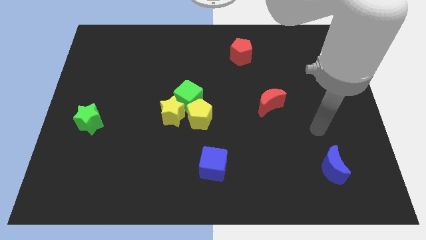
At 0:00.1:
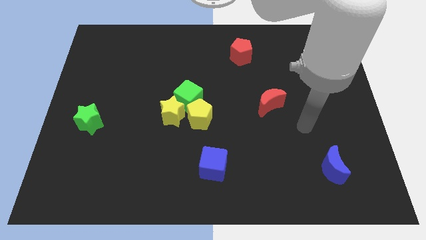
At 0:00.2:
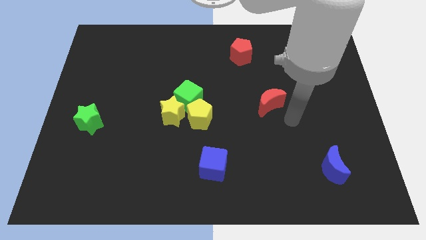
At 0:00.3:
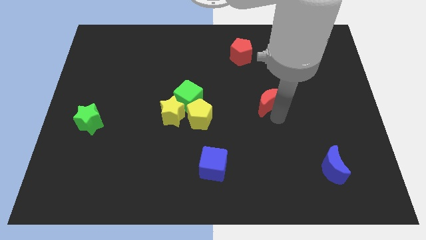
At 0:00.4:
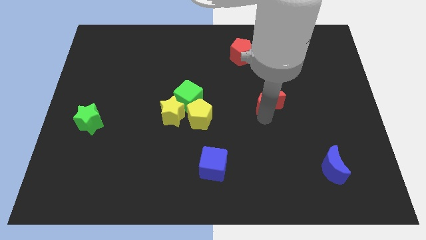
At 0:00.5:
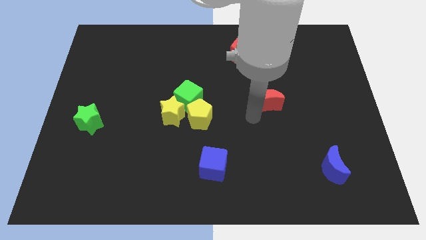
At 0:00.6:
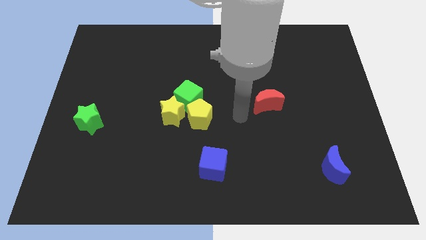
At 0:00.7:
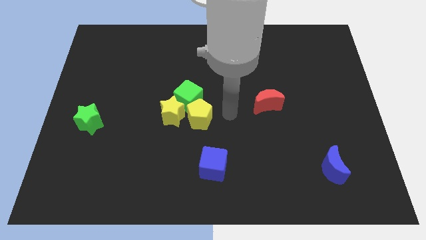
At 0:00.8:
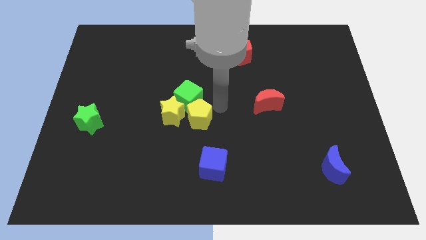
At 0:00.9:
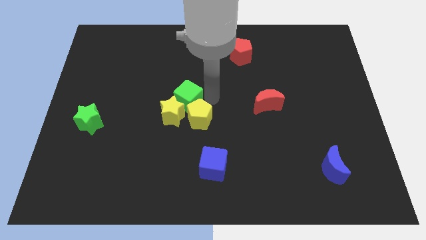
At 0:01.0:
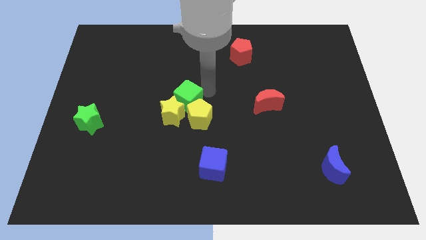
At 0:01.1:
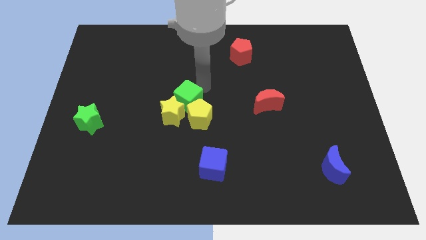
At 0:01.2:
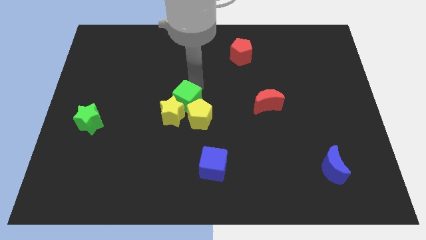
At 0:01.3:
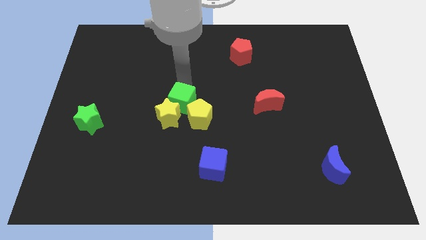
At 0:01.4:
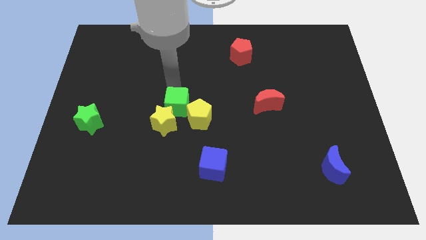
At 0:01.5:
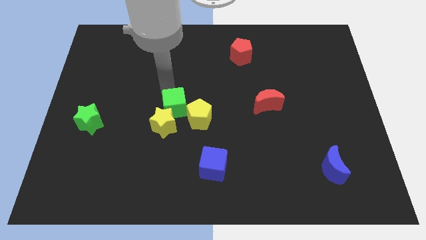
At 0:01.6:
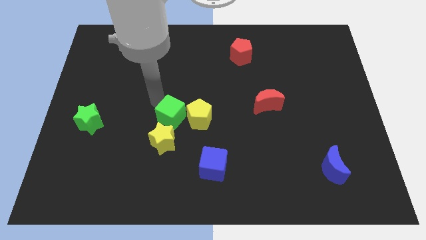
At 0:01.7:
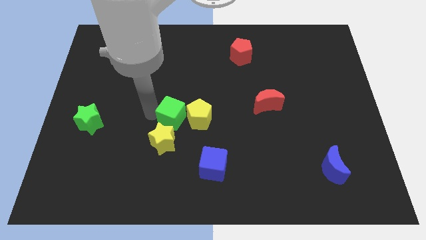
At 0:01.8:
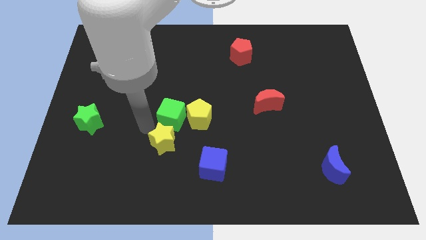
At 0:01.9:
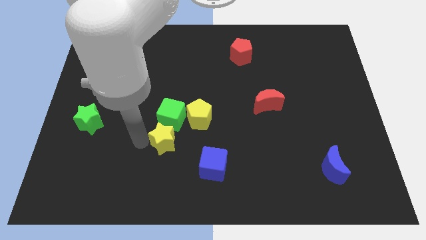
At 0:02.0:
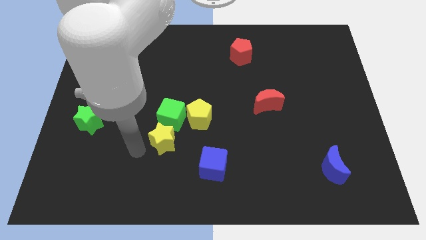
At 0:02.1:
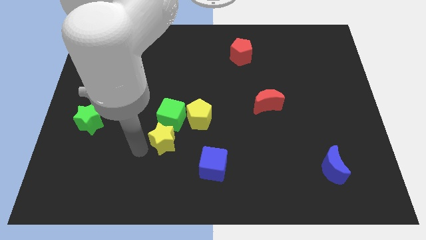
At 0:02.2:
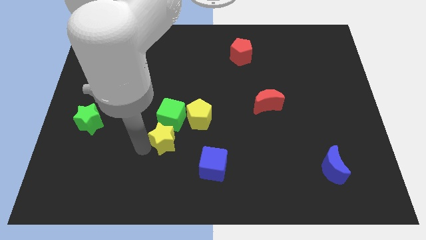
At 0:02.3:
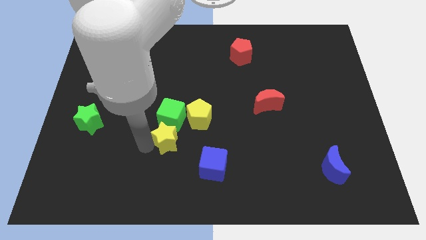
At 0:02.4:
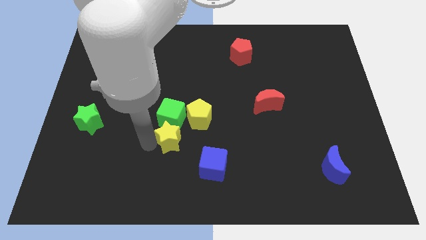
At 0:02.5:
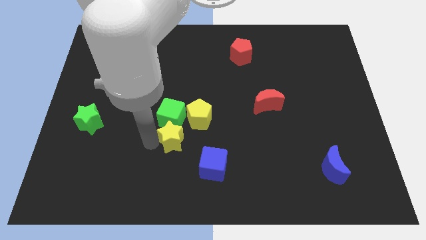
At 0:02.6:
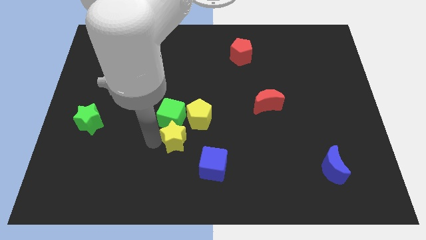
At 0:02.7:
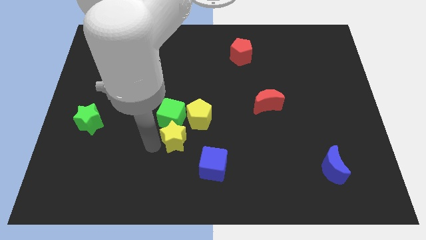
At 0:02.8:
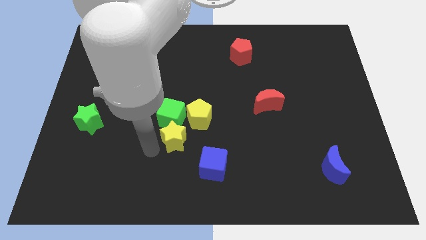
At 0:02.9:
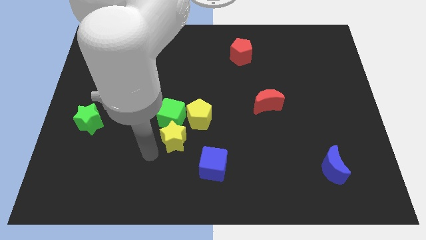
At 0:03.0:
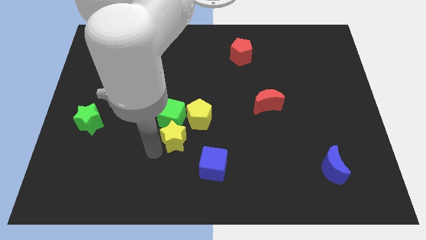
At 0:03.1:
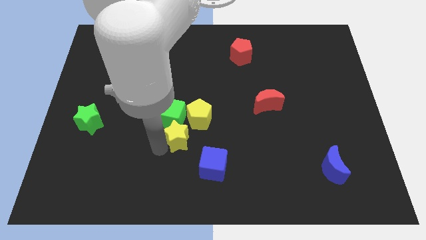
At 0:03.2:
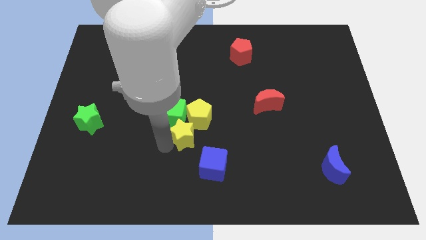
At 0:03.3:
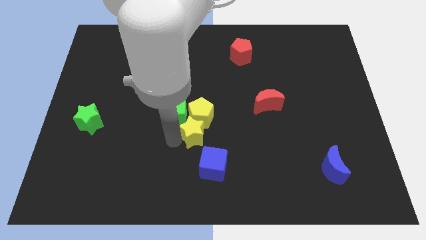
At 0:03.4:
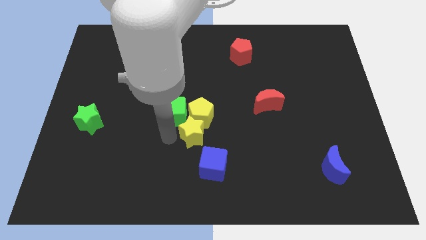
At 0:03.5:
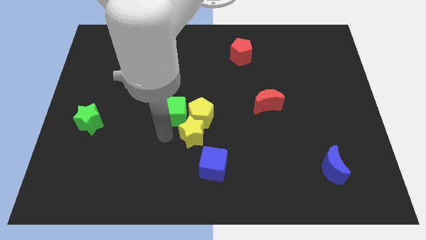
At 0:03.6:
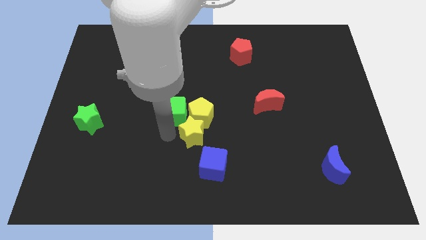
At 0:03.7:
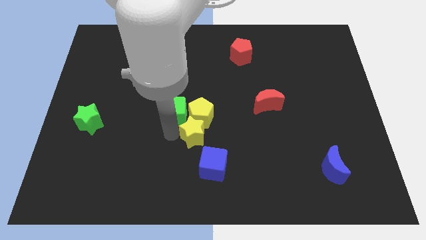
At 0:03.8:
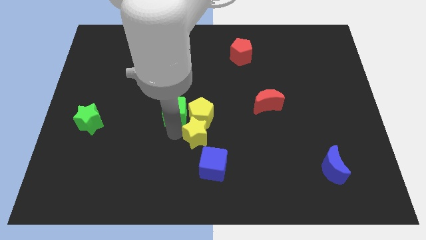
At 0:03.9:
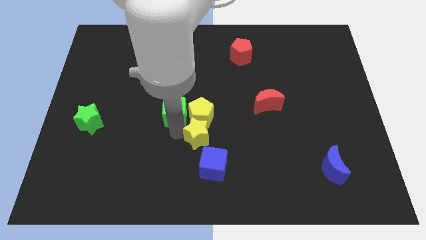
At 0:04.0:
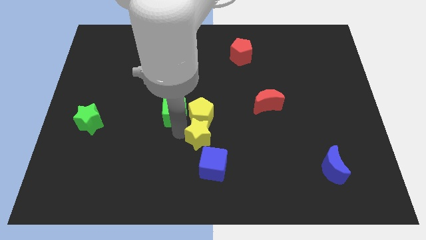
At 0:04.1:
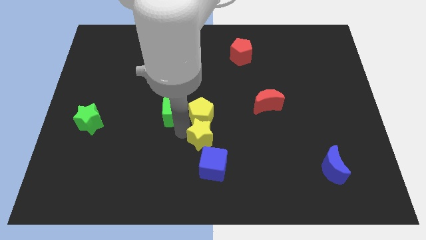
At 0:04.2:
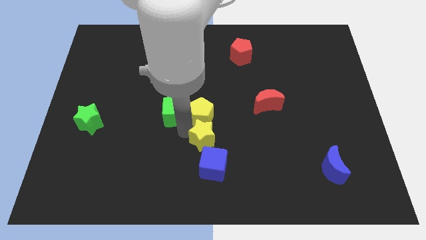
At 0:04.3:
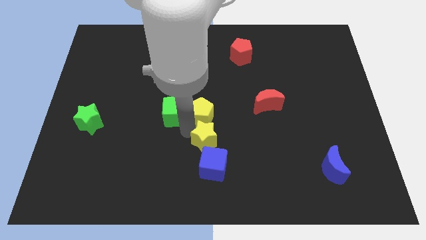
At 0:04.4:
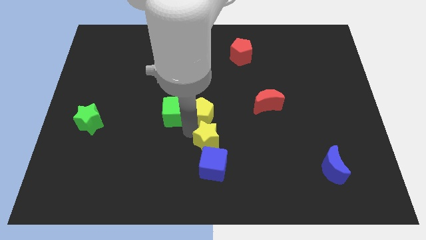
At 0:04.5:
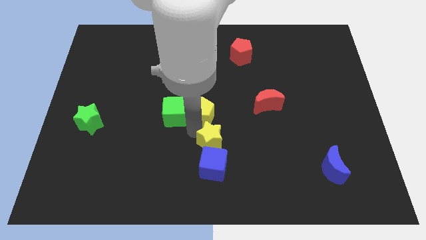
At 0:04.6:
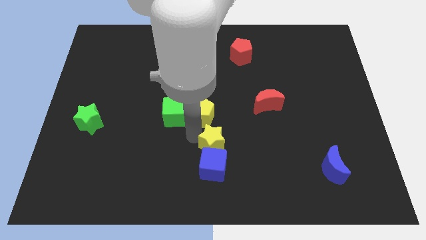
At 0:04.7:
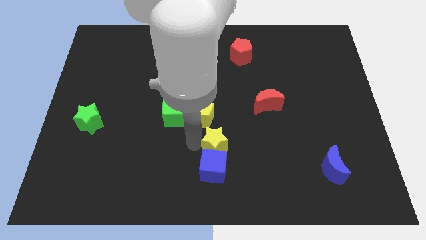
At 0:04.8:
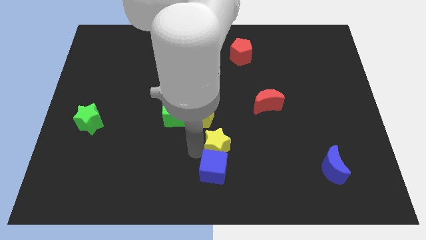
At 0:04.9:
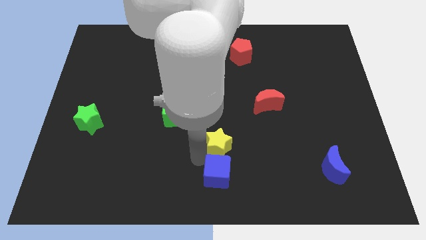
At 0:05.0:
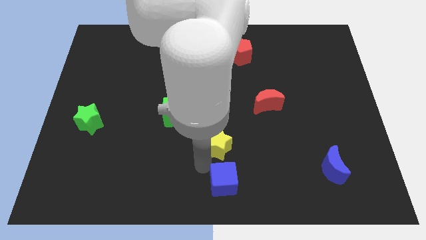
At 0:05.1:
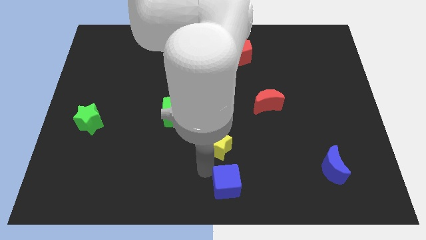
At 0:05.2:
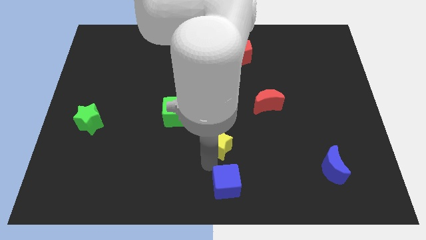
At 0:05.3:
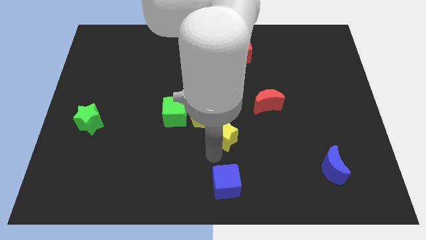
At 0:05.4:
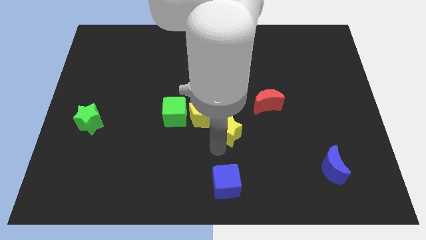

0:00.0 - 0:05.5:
move the yellow star just right of the green cube

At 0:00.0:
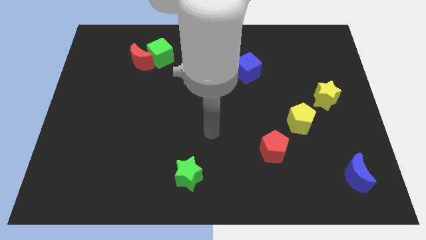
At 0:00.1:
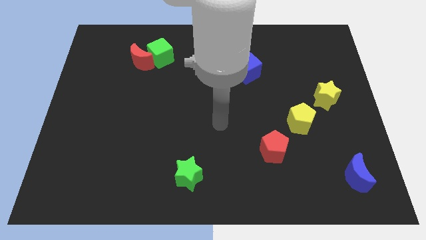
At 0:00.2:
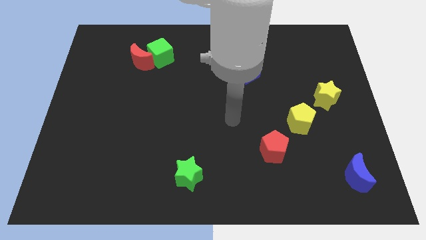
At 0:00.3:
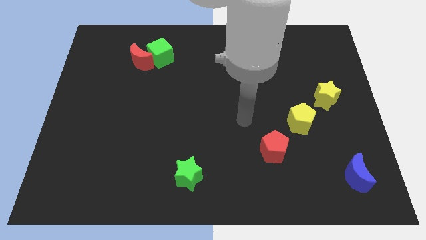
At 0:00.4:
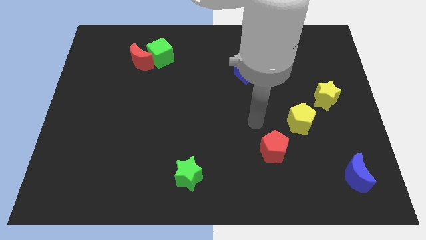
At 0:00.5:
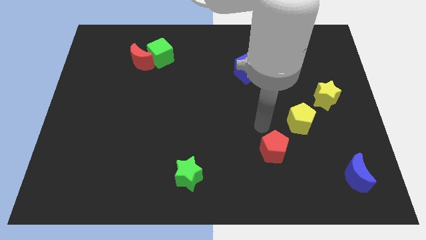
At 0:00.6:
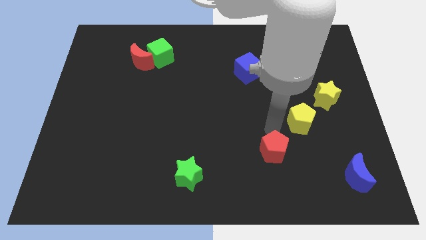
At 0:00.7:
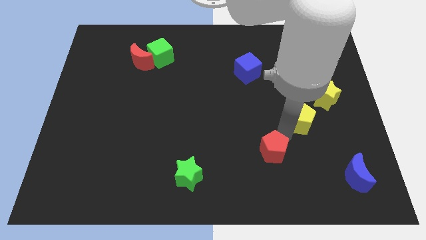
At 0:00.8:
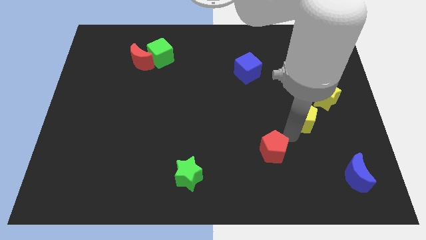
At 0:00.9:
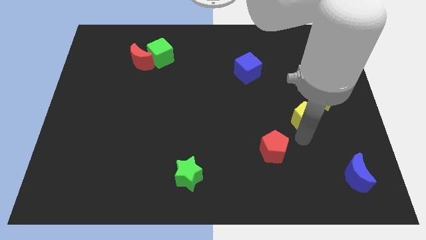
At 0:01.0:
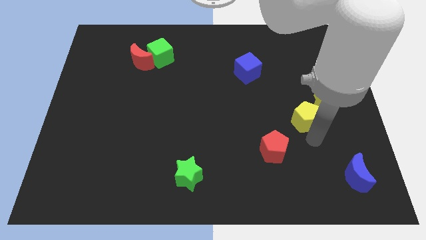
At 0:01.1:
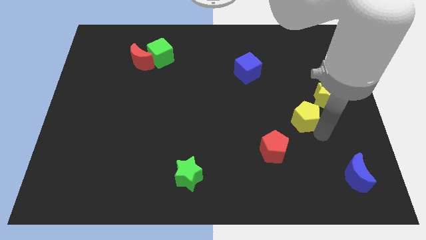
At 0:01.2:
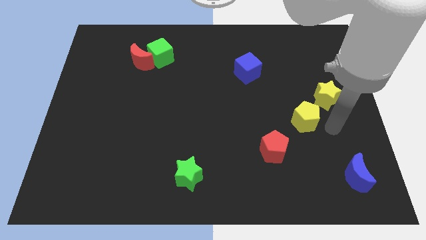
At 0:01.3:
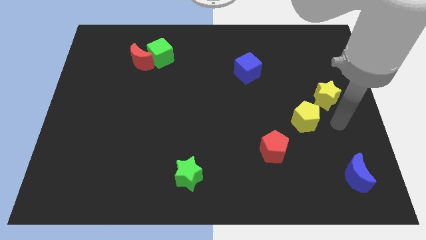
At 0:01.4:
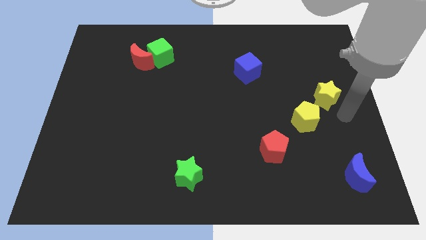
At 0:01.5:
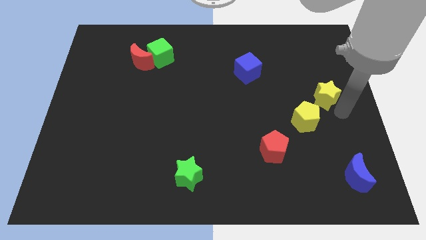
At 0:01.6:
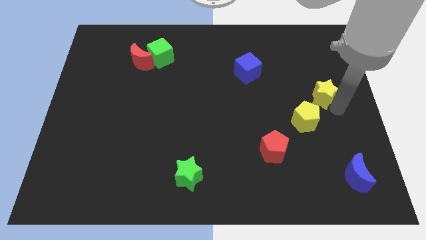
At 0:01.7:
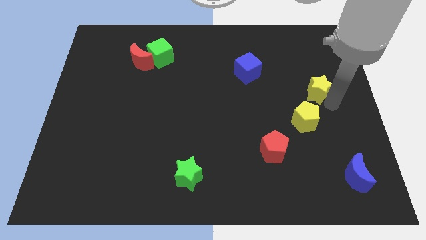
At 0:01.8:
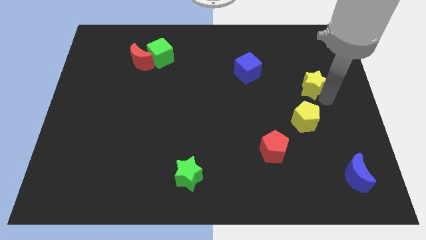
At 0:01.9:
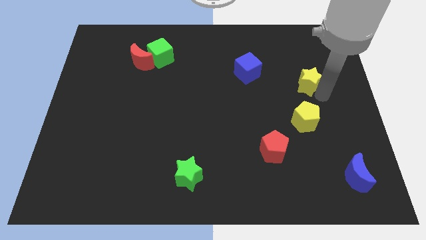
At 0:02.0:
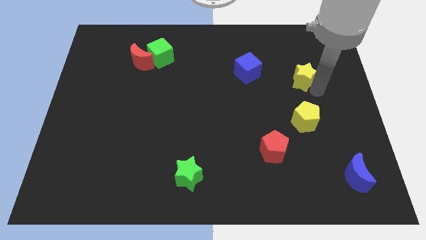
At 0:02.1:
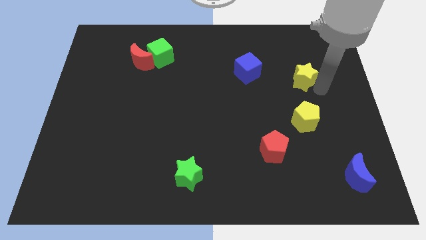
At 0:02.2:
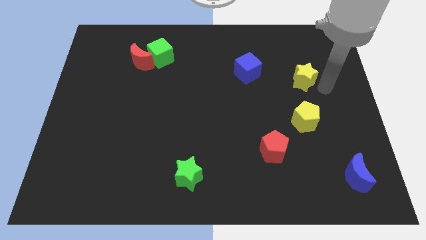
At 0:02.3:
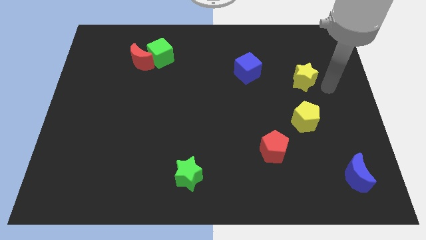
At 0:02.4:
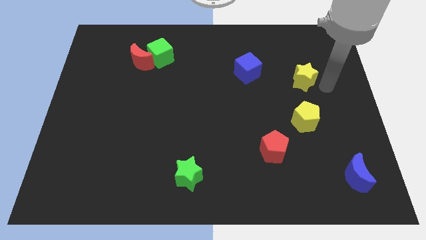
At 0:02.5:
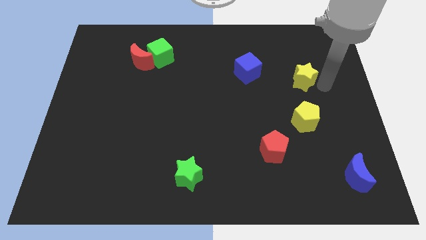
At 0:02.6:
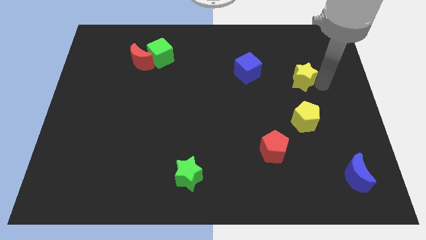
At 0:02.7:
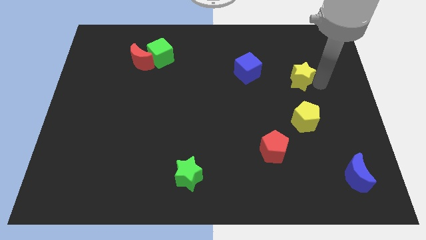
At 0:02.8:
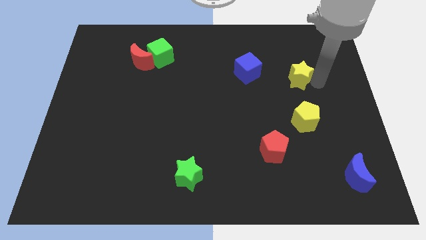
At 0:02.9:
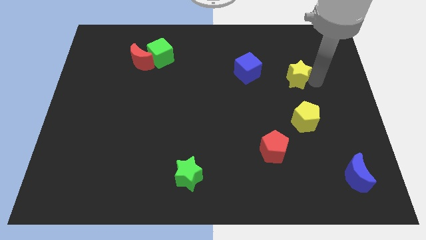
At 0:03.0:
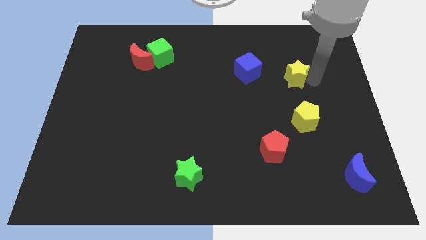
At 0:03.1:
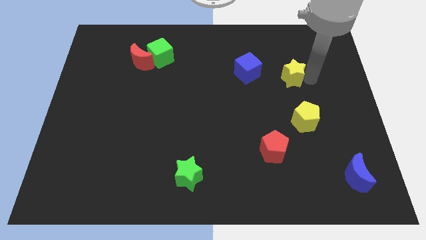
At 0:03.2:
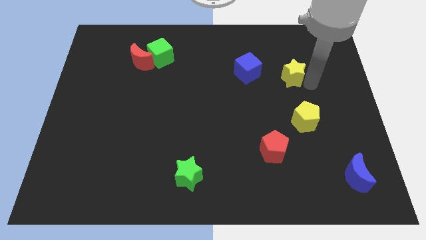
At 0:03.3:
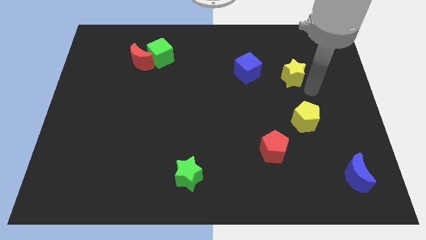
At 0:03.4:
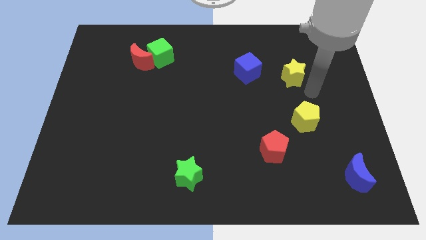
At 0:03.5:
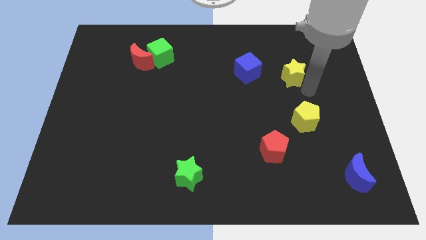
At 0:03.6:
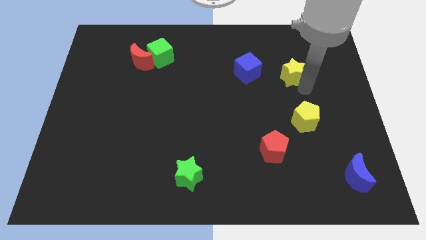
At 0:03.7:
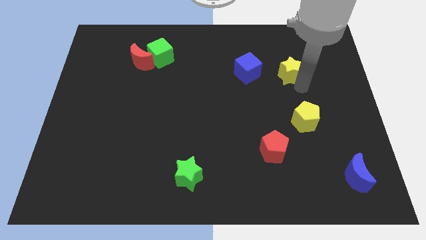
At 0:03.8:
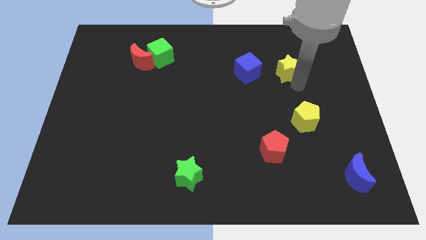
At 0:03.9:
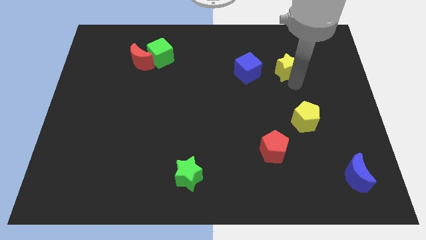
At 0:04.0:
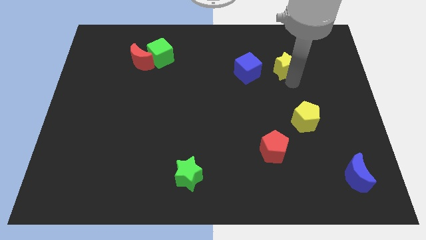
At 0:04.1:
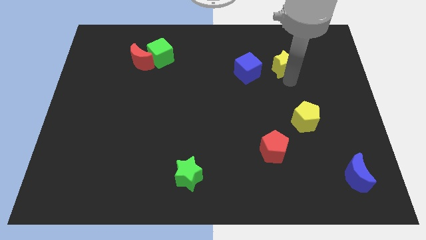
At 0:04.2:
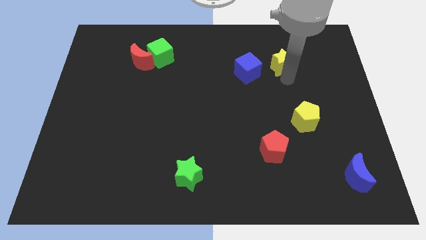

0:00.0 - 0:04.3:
move the yellow star diagonally up and to the right of the blue cube
